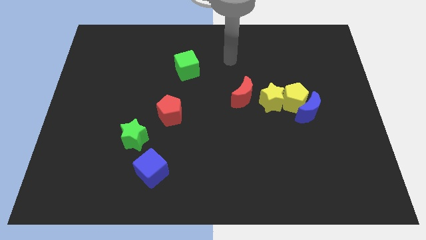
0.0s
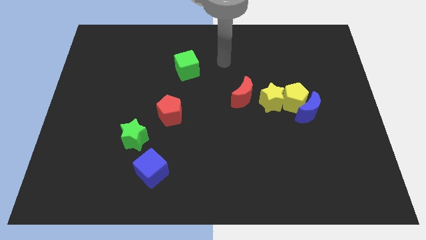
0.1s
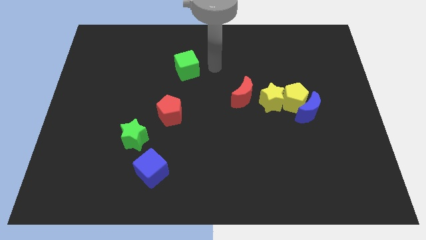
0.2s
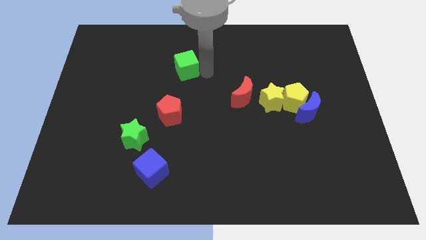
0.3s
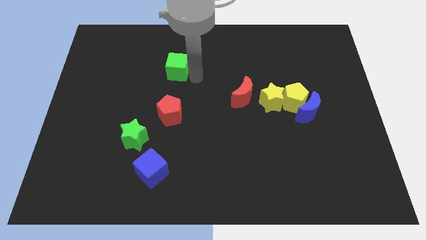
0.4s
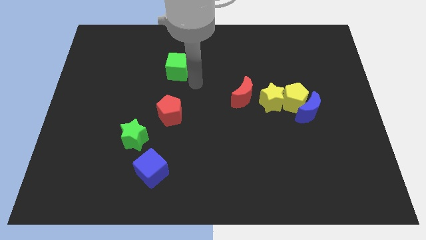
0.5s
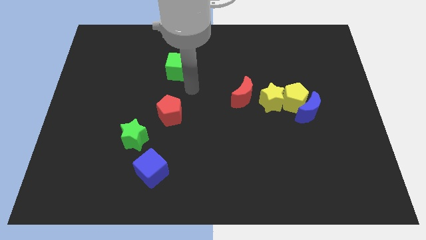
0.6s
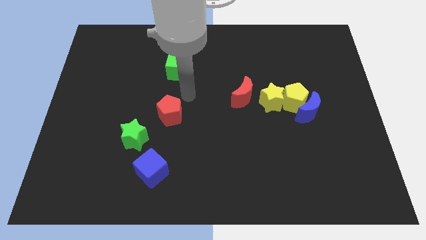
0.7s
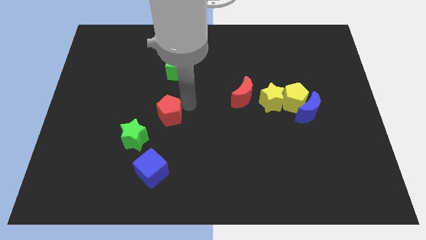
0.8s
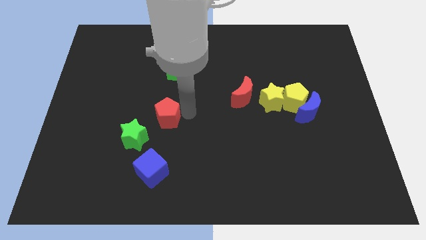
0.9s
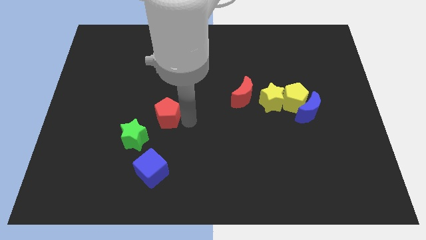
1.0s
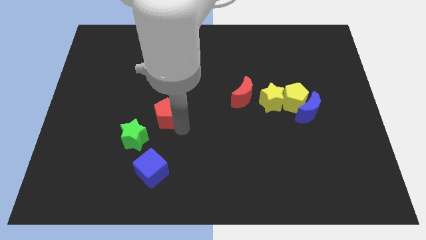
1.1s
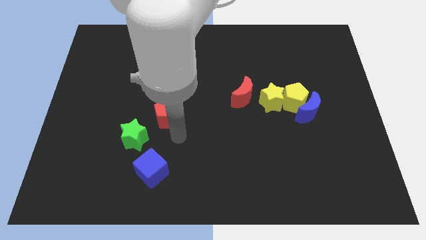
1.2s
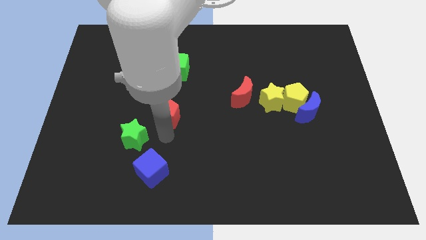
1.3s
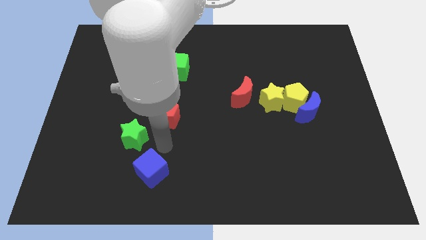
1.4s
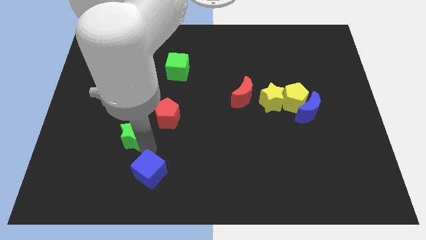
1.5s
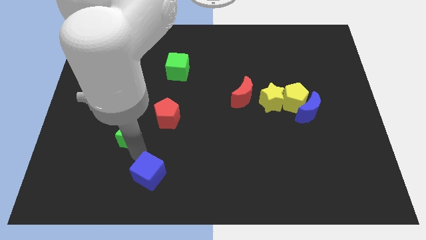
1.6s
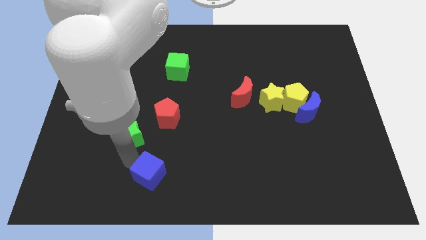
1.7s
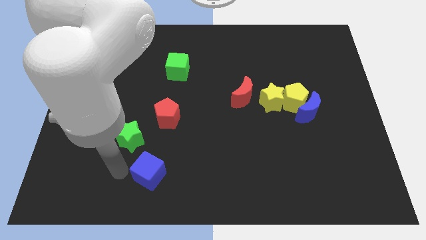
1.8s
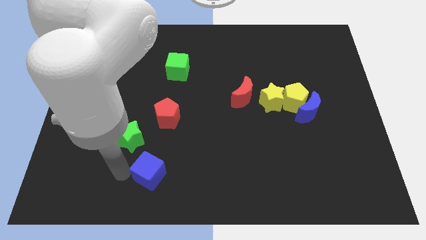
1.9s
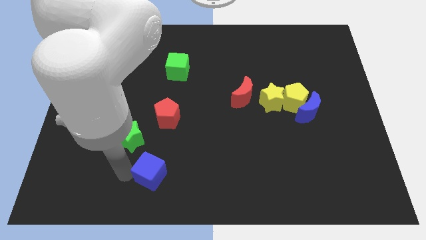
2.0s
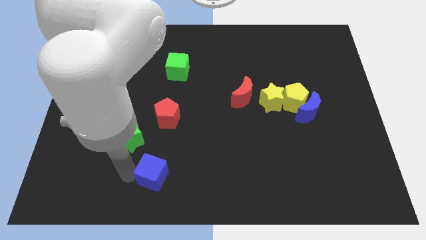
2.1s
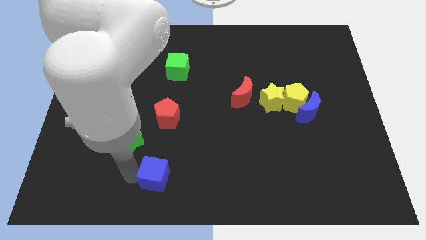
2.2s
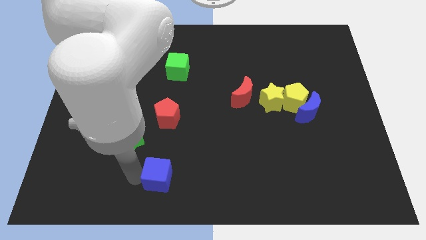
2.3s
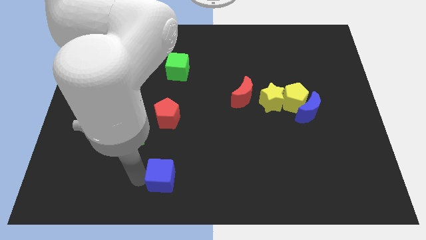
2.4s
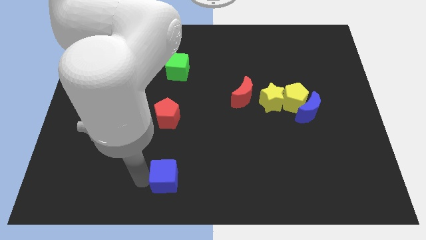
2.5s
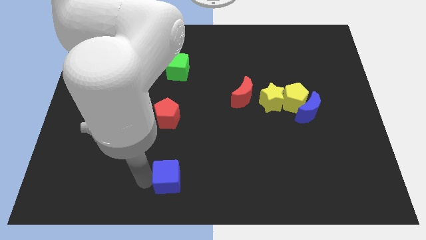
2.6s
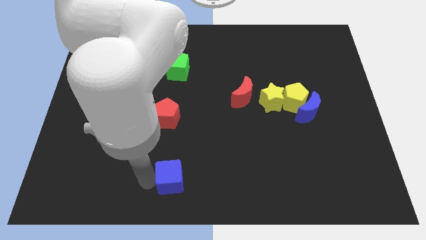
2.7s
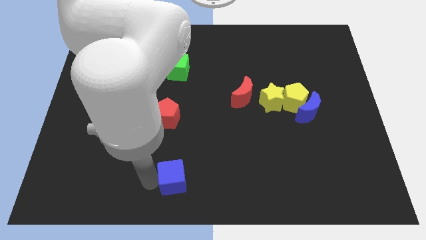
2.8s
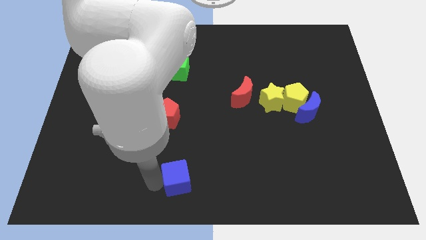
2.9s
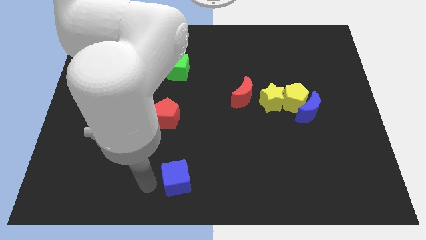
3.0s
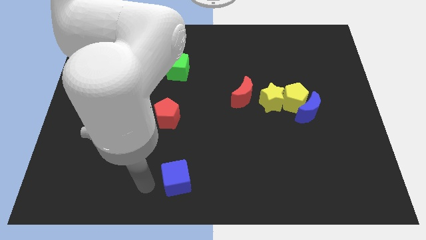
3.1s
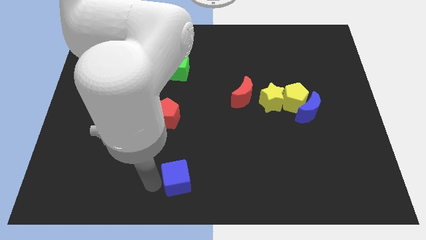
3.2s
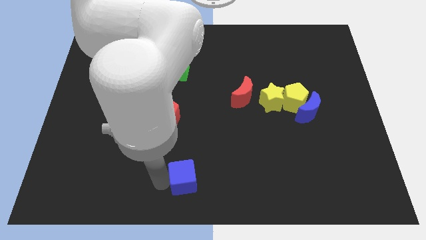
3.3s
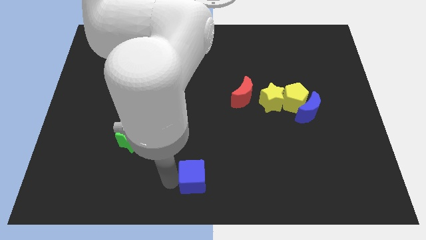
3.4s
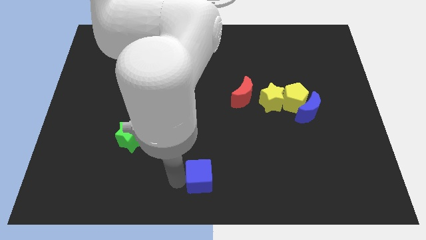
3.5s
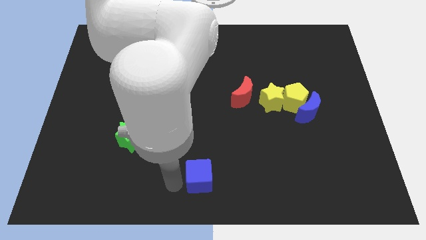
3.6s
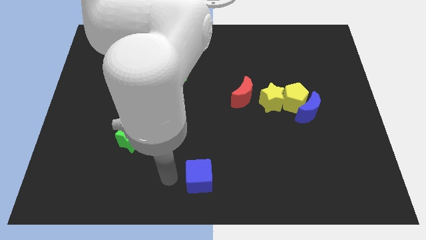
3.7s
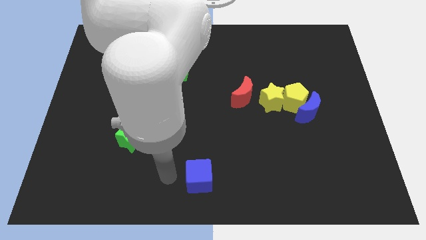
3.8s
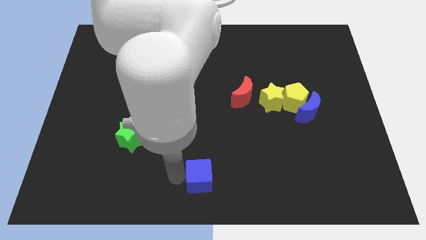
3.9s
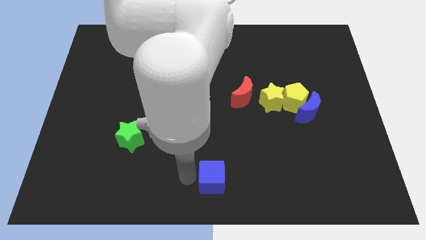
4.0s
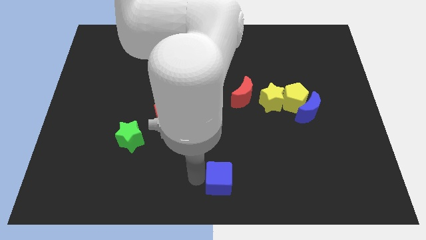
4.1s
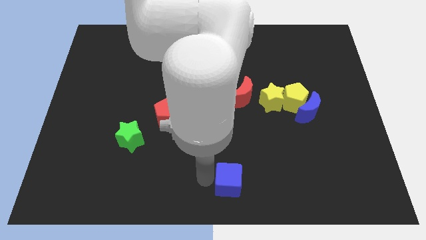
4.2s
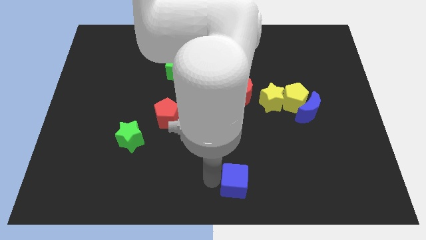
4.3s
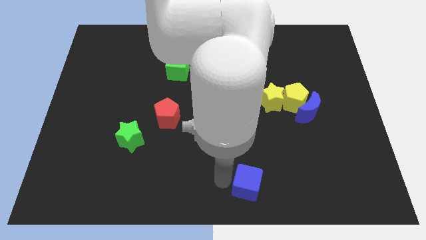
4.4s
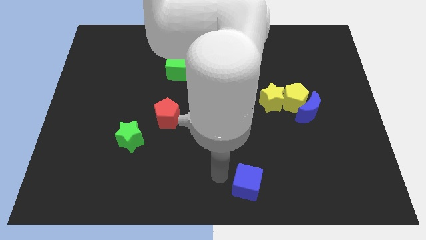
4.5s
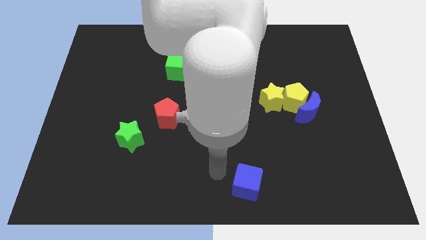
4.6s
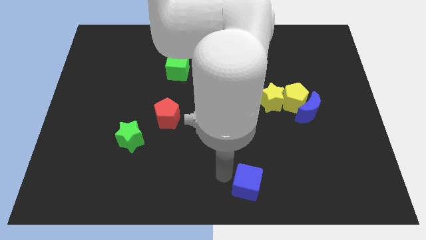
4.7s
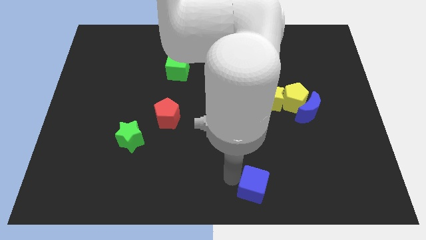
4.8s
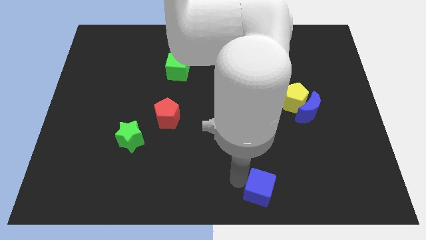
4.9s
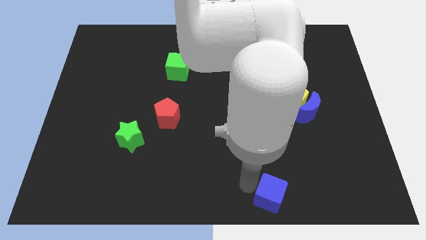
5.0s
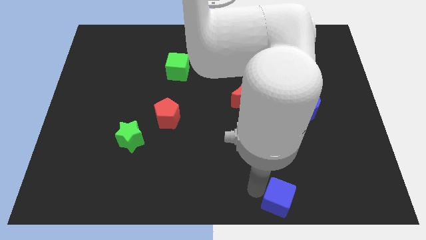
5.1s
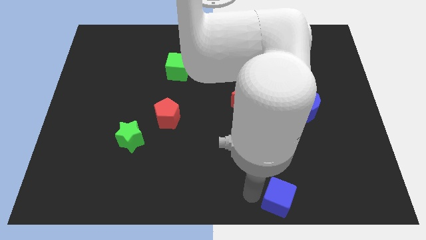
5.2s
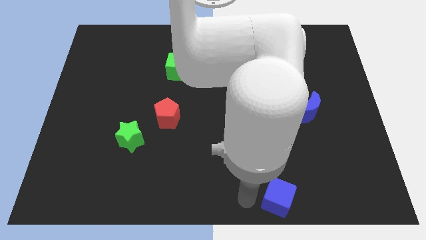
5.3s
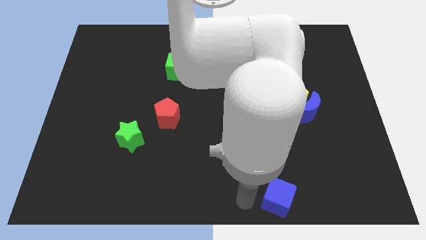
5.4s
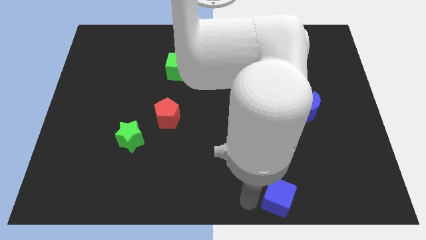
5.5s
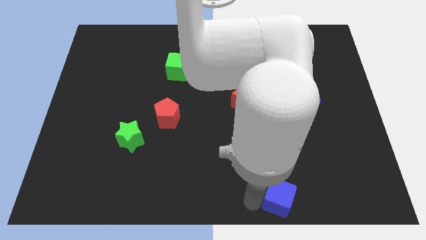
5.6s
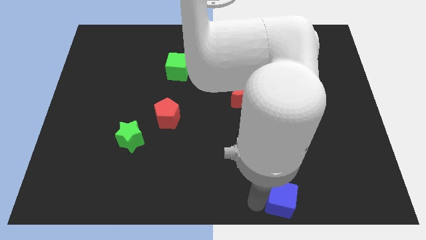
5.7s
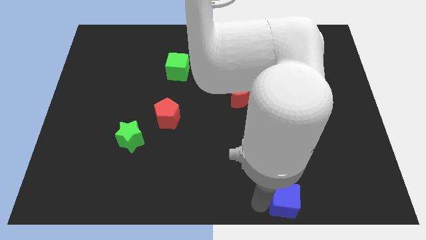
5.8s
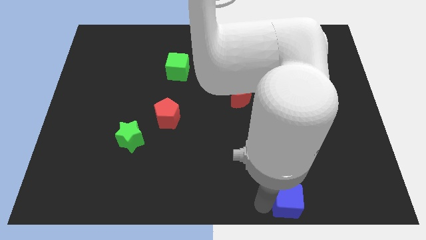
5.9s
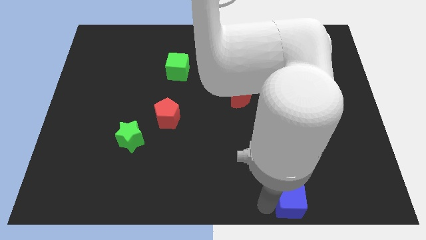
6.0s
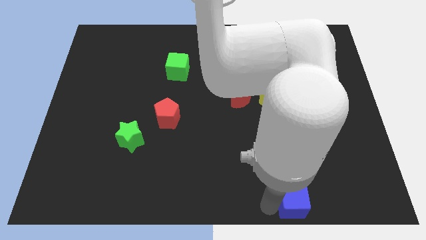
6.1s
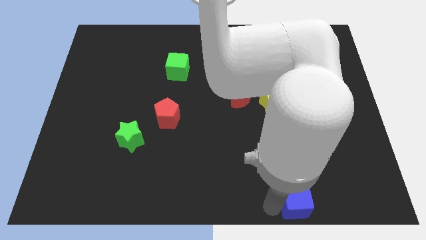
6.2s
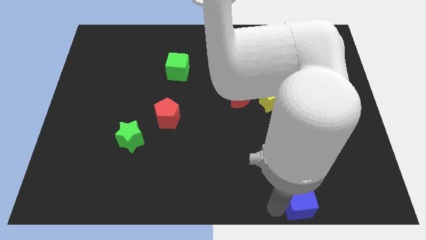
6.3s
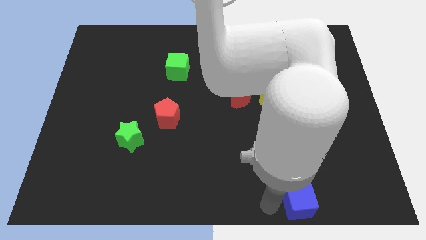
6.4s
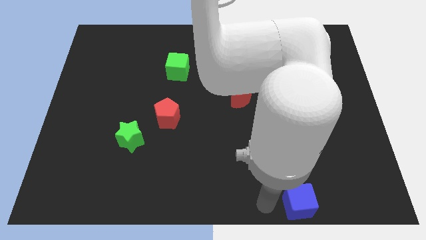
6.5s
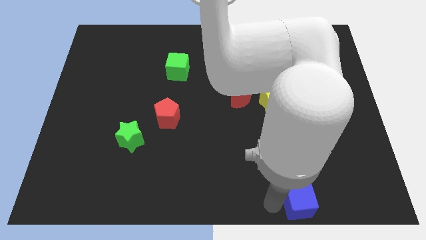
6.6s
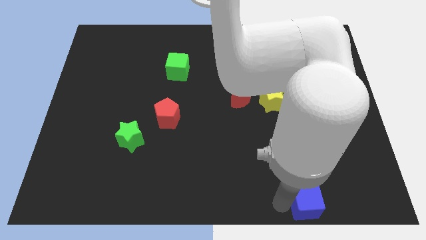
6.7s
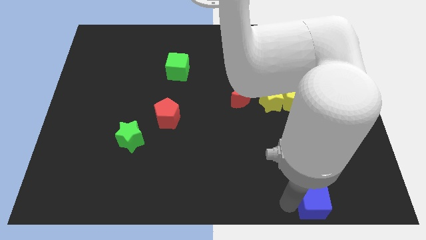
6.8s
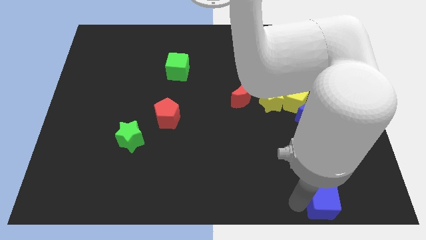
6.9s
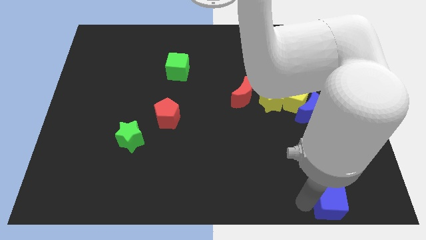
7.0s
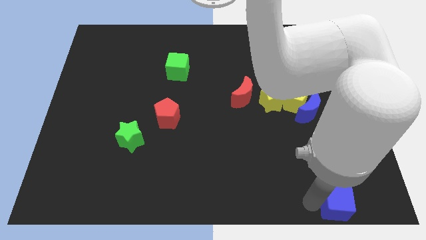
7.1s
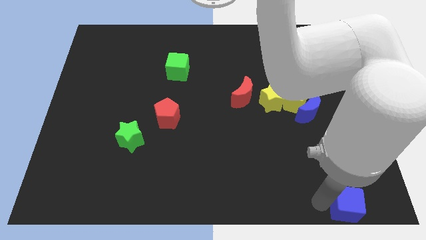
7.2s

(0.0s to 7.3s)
move the blue cube to the bottom right of the board
